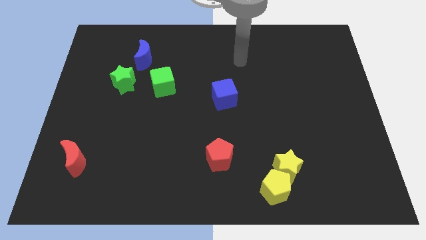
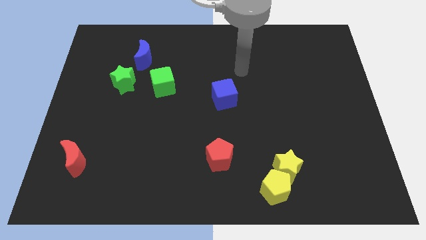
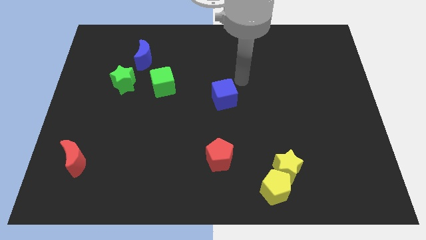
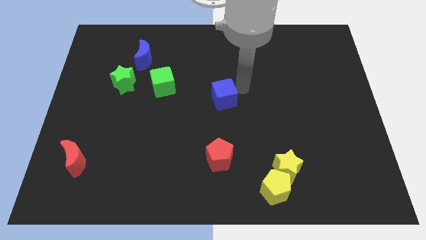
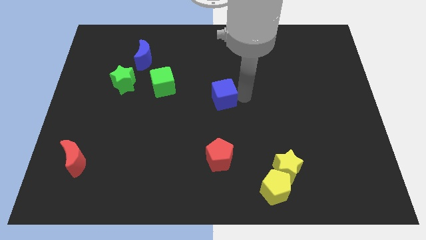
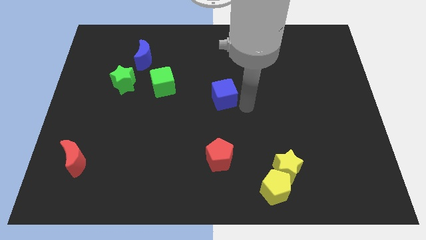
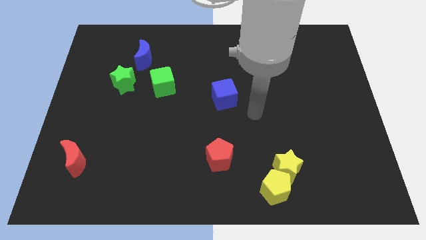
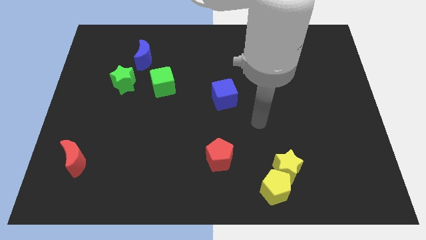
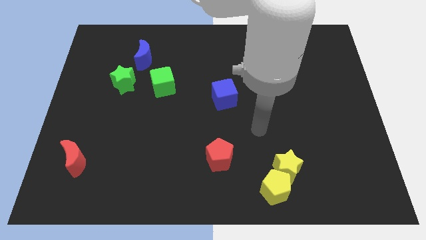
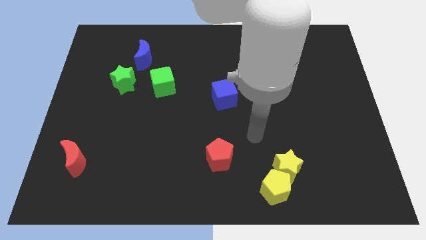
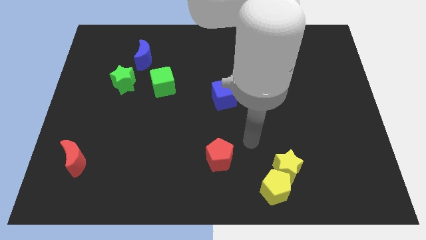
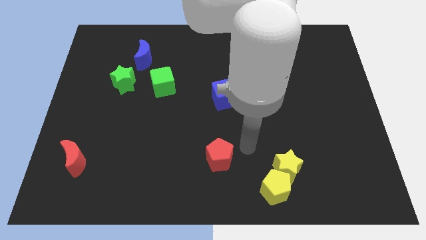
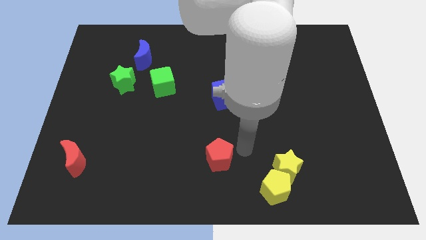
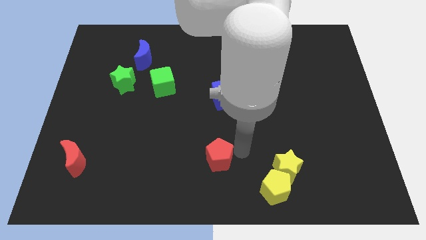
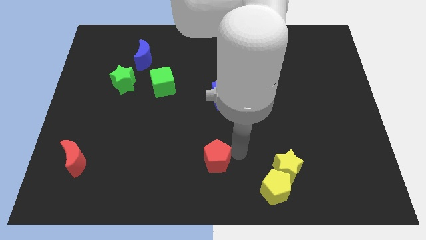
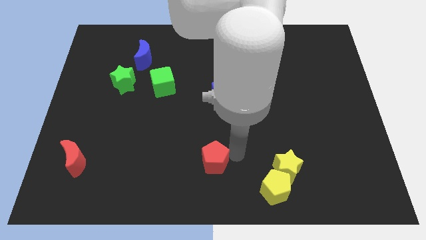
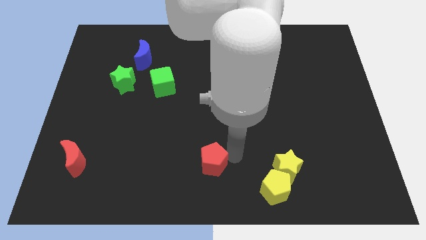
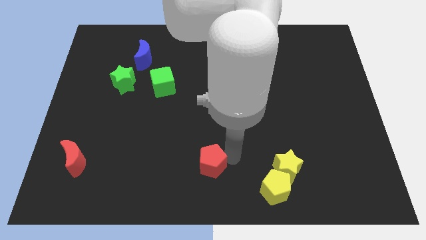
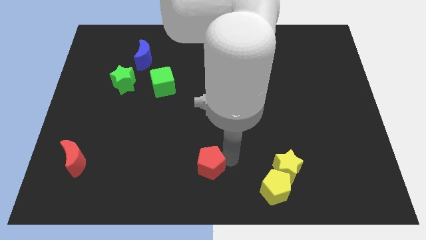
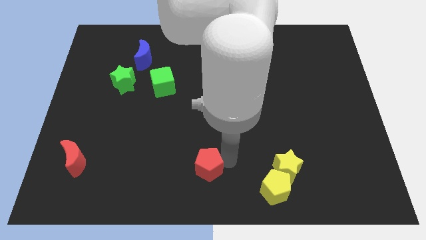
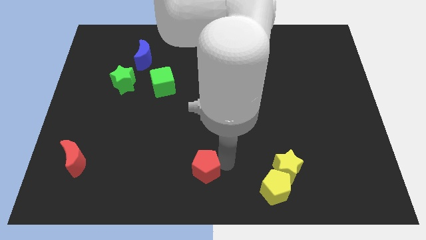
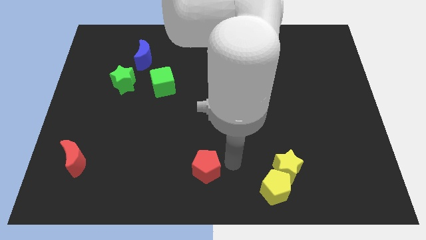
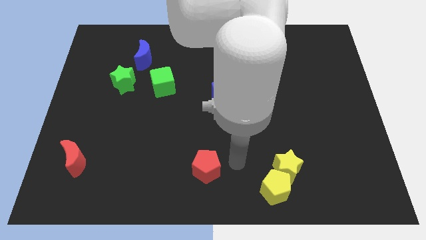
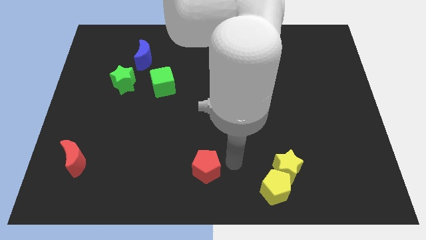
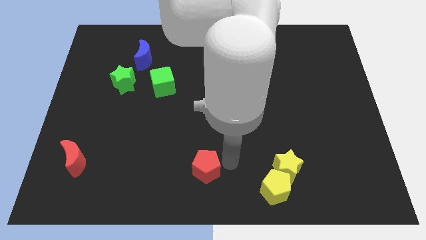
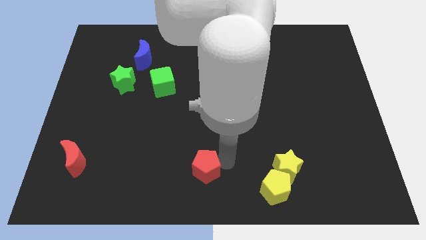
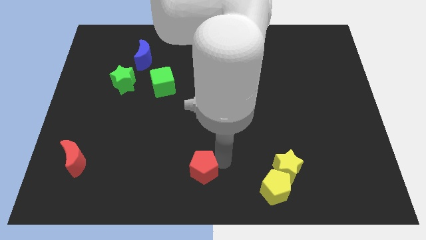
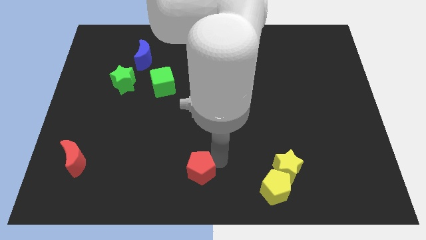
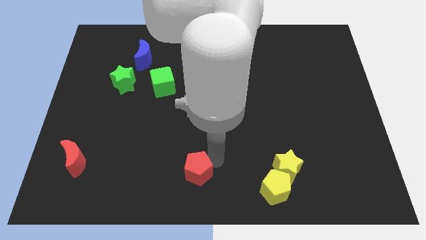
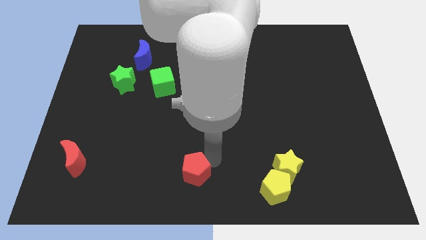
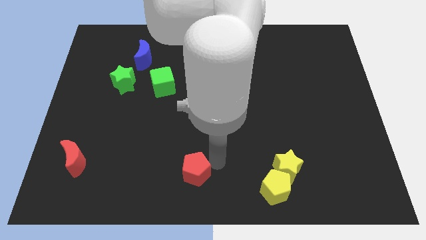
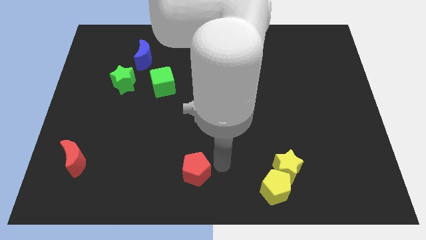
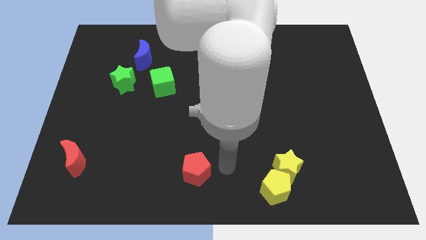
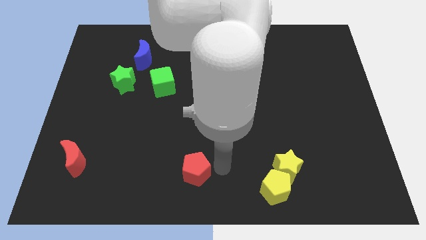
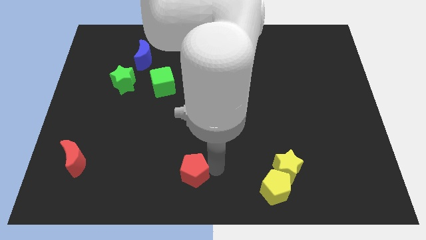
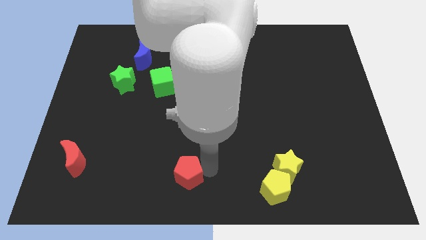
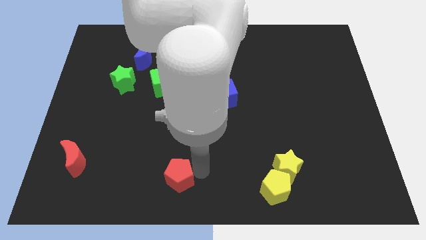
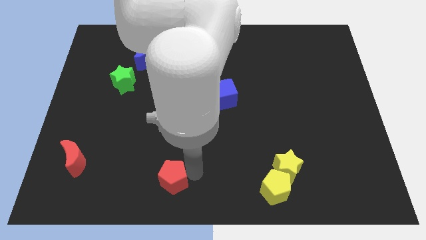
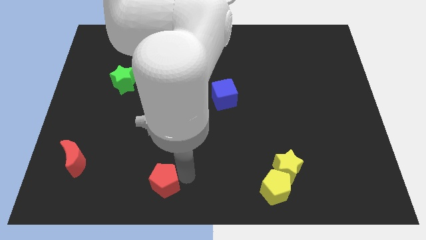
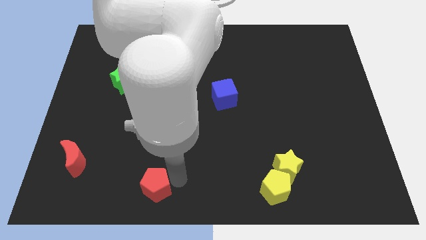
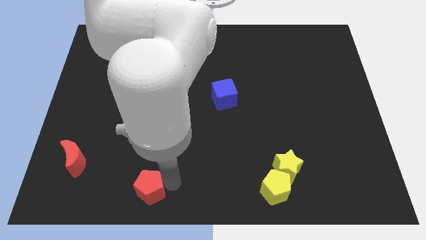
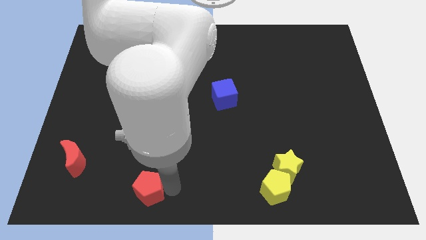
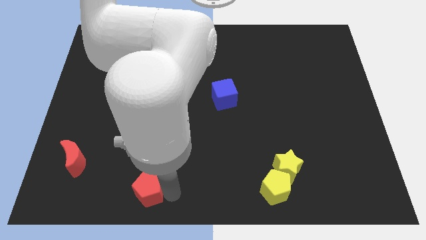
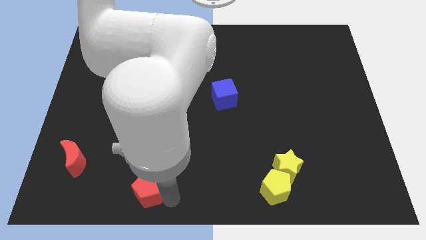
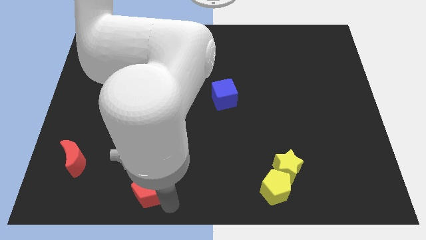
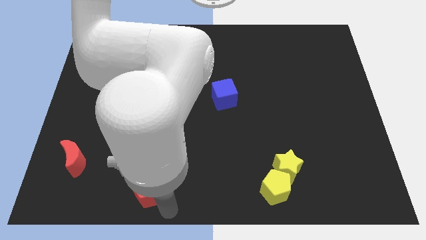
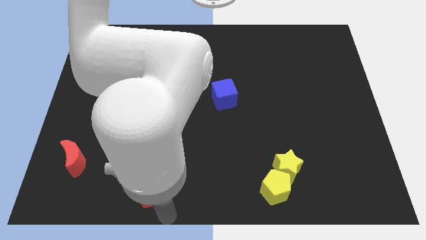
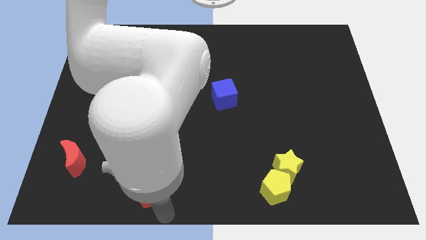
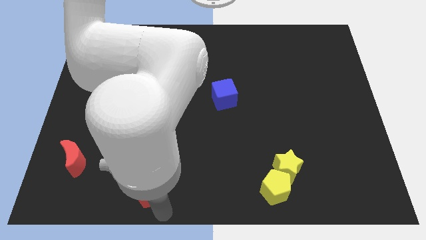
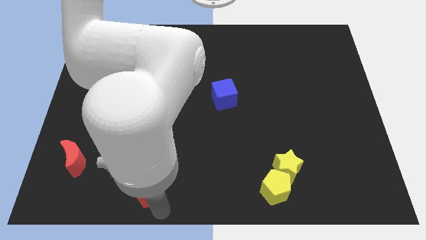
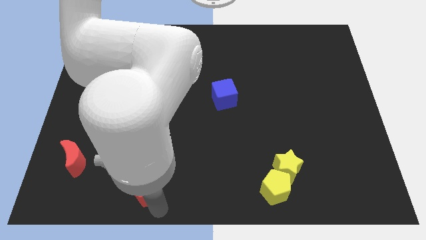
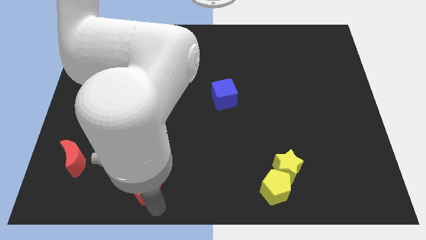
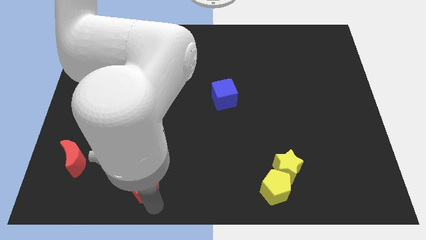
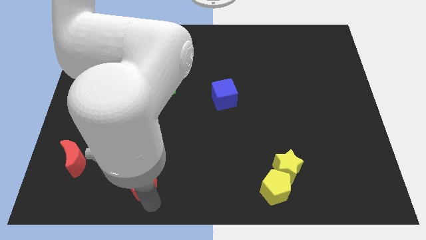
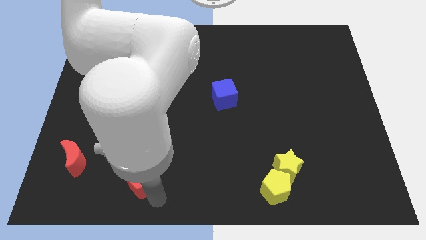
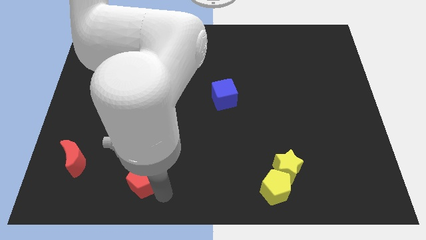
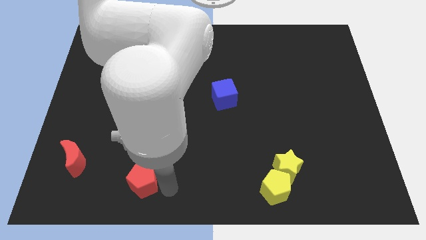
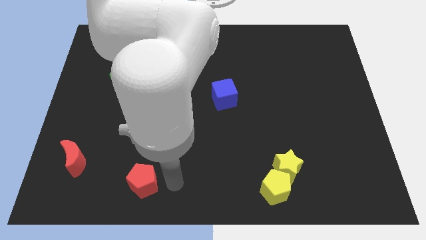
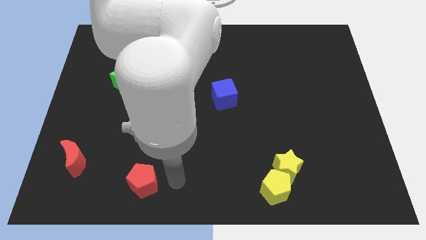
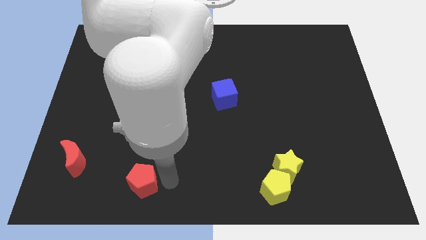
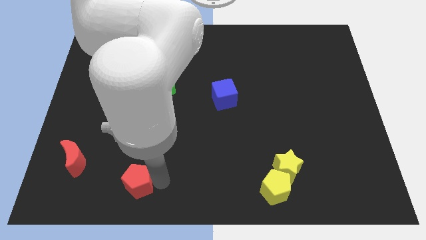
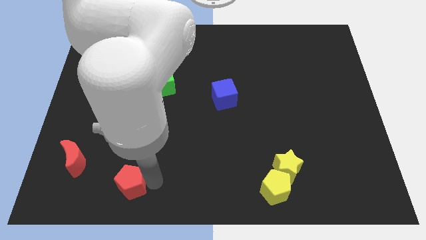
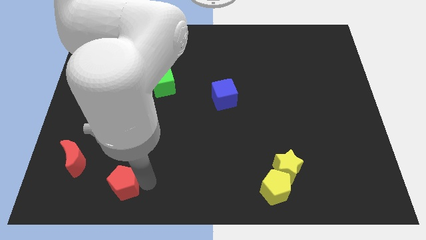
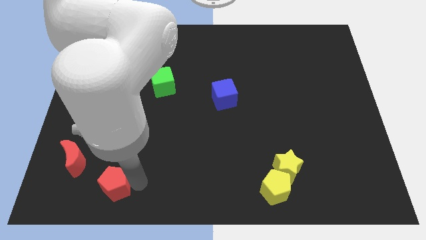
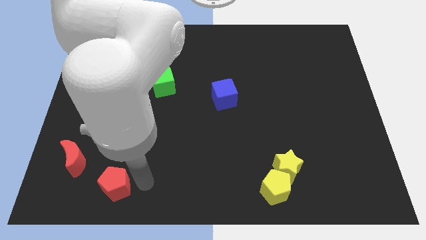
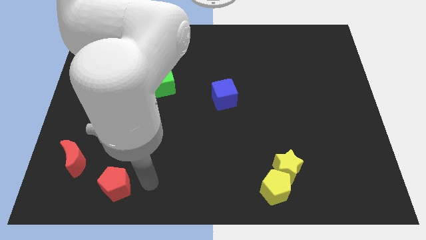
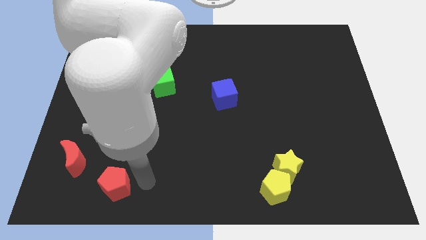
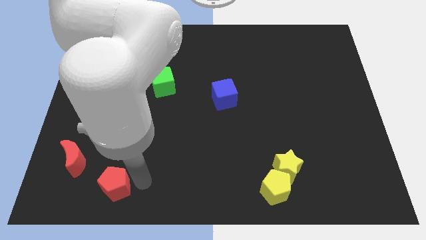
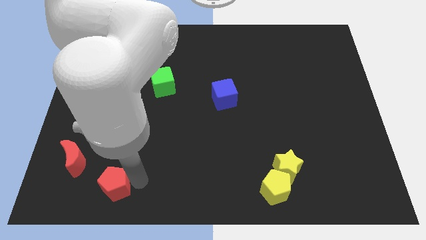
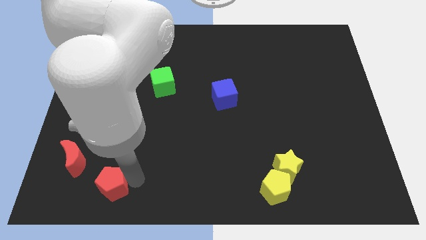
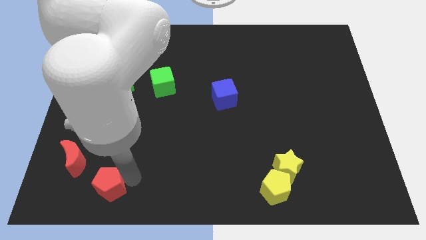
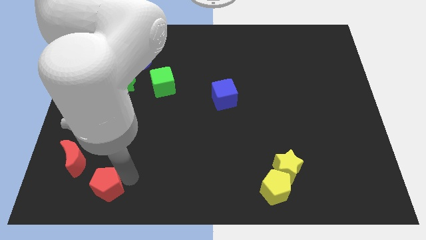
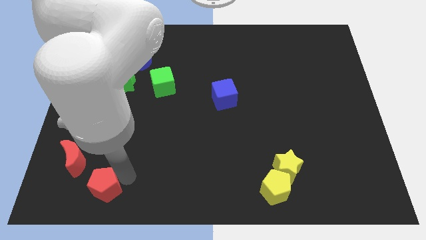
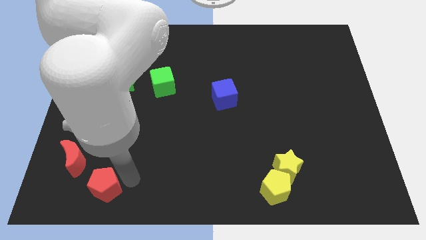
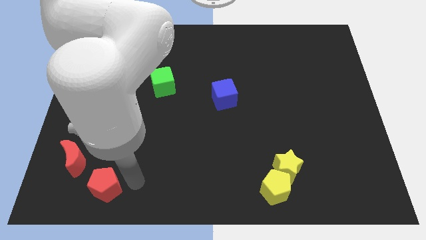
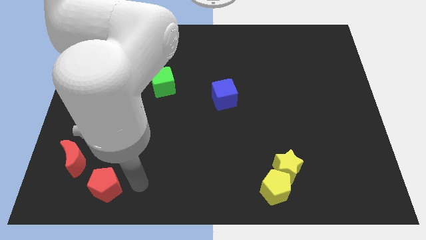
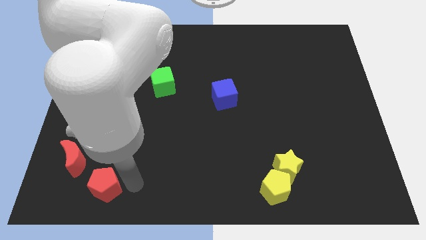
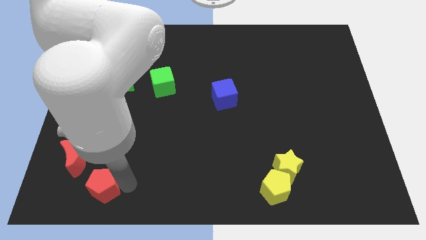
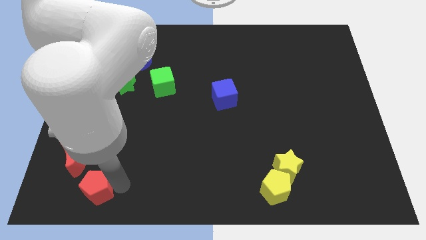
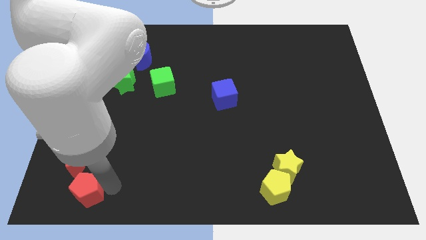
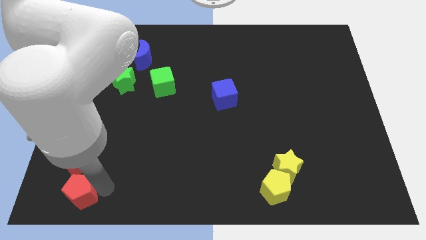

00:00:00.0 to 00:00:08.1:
slide the red pentagon to the bottom left corner
